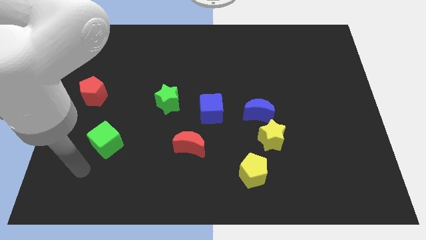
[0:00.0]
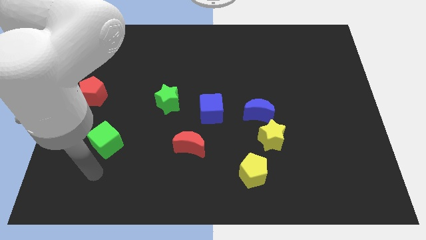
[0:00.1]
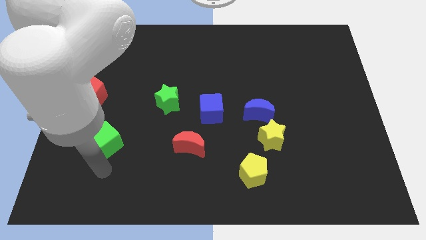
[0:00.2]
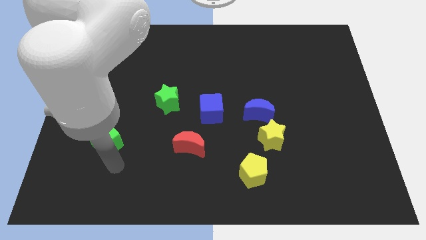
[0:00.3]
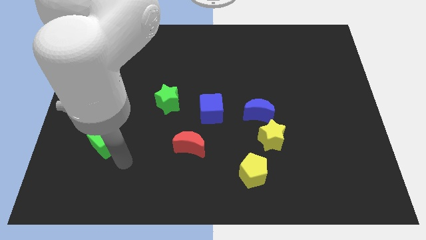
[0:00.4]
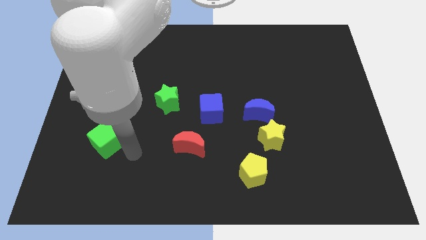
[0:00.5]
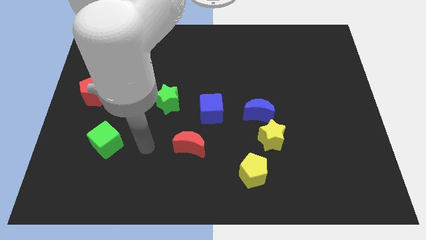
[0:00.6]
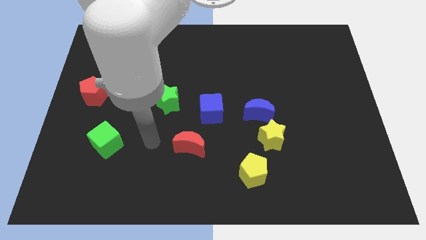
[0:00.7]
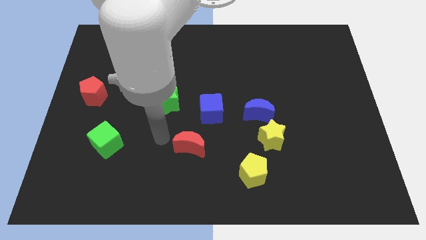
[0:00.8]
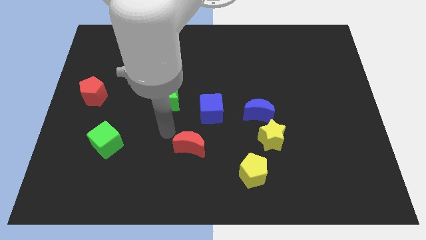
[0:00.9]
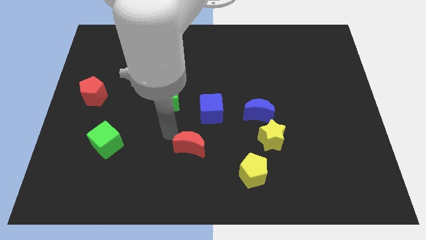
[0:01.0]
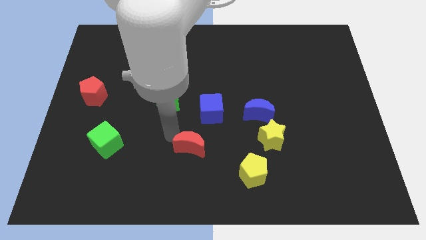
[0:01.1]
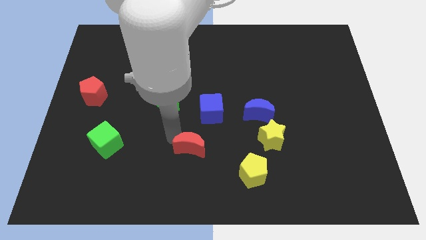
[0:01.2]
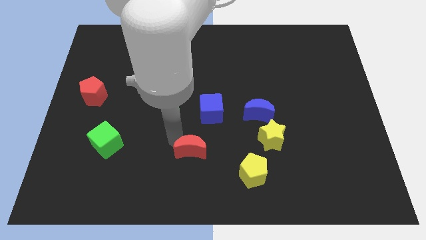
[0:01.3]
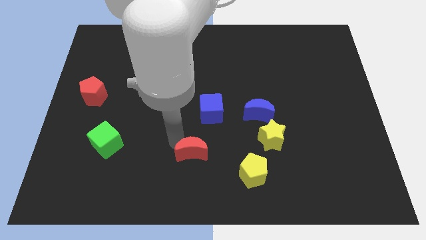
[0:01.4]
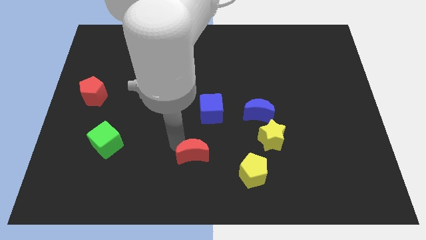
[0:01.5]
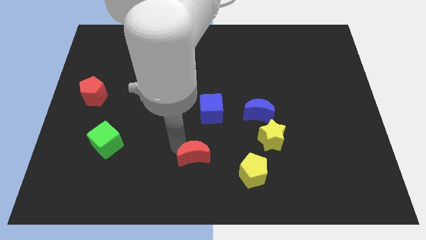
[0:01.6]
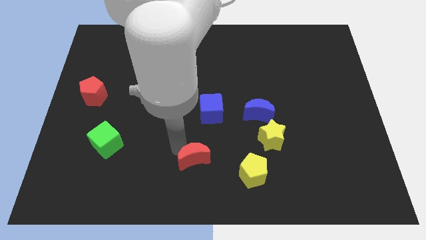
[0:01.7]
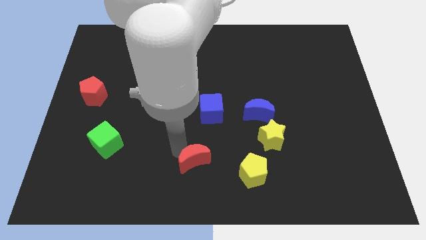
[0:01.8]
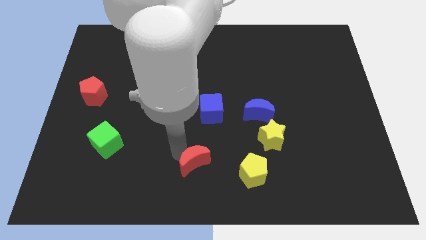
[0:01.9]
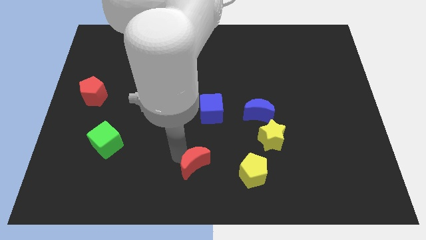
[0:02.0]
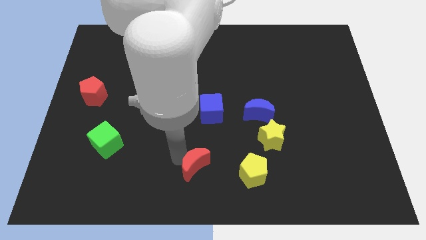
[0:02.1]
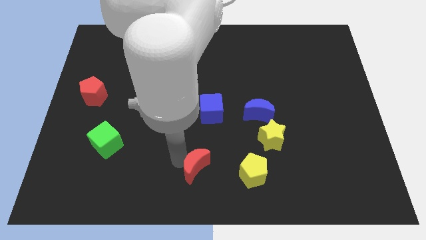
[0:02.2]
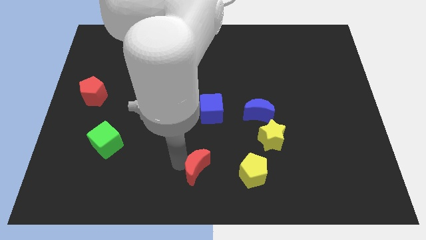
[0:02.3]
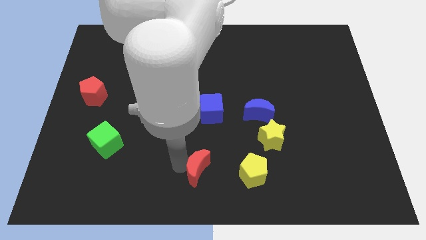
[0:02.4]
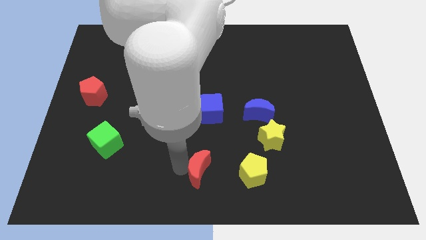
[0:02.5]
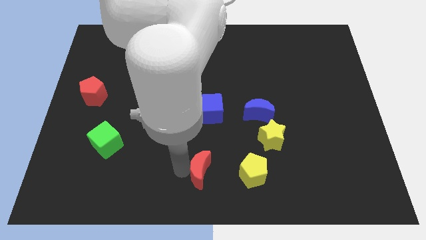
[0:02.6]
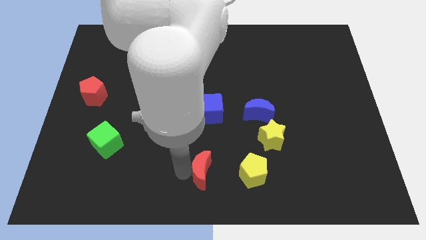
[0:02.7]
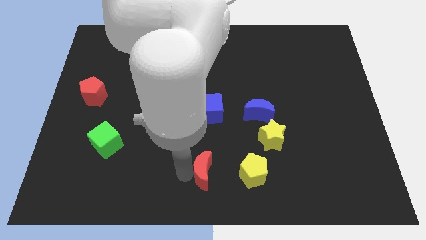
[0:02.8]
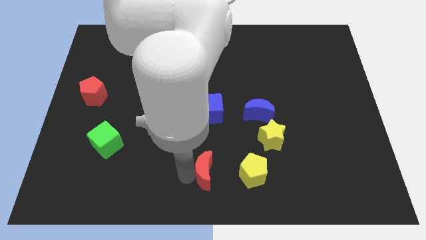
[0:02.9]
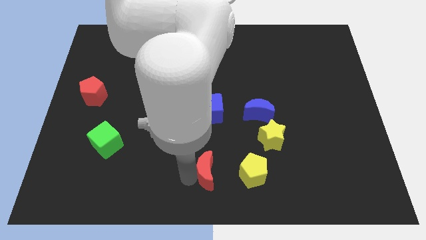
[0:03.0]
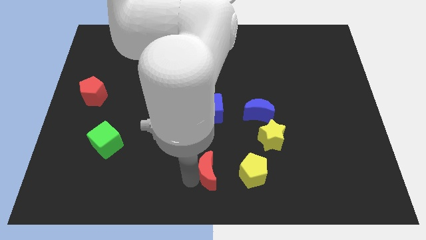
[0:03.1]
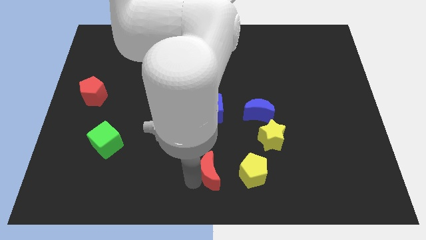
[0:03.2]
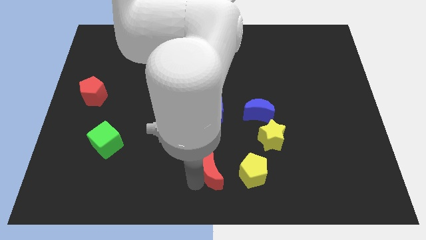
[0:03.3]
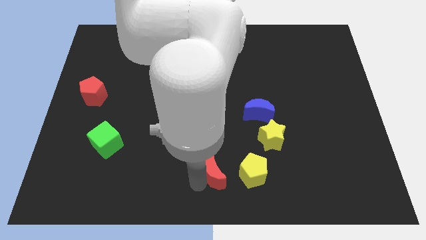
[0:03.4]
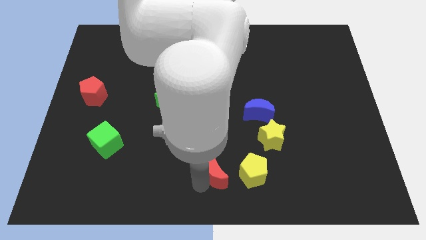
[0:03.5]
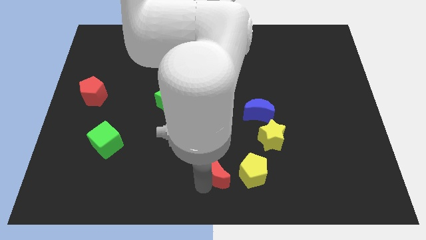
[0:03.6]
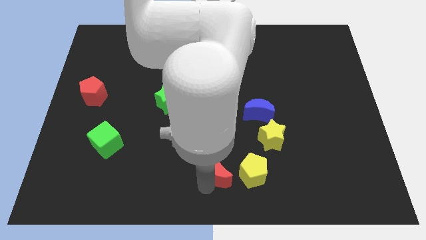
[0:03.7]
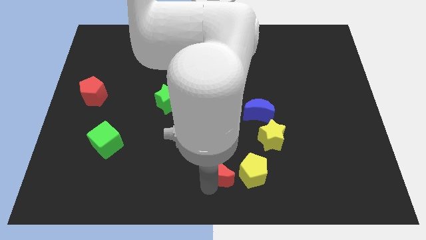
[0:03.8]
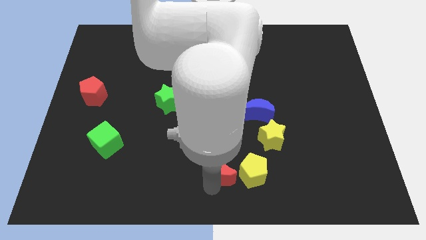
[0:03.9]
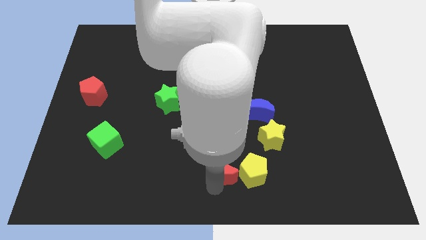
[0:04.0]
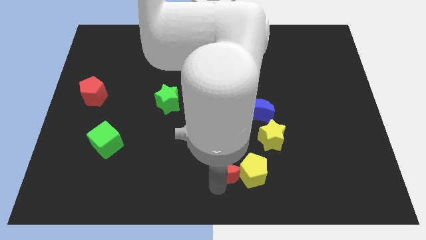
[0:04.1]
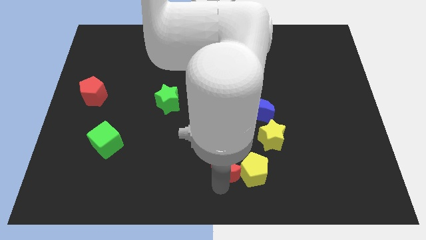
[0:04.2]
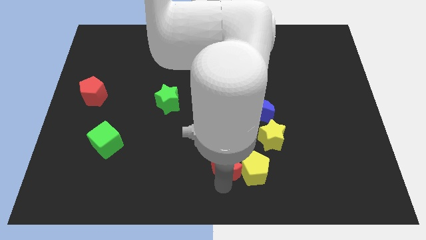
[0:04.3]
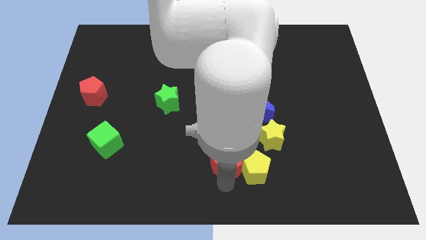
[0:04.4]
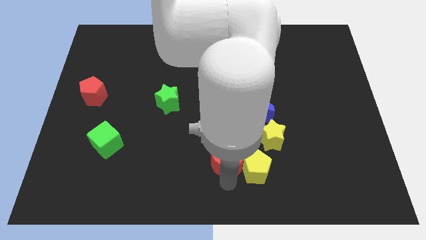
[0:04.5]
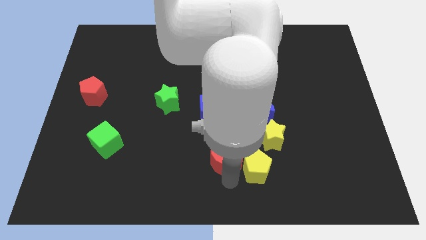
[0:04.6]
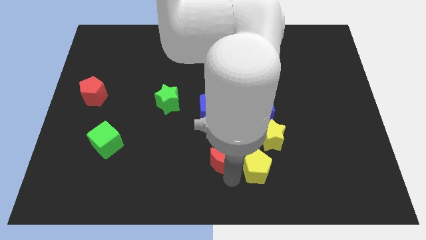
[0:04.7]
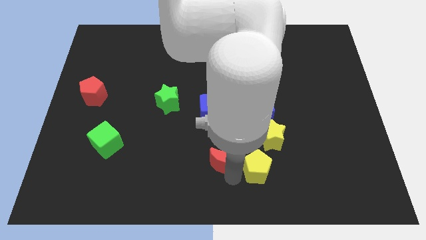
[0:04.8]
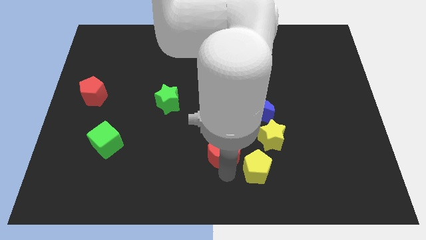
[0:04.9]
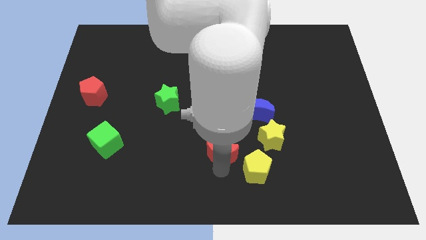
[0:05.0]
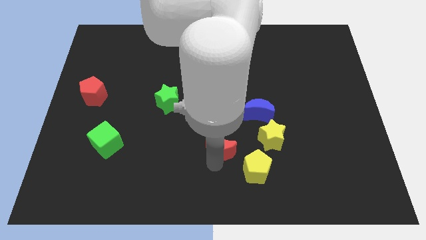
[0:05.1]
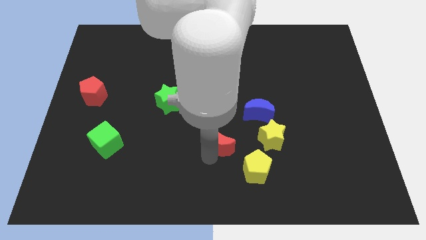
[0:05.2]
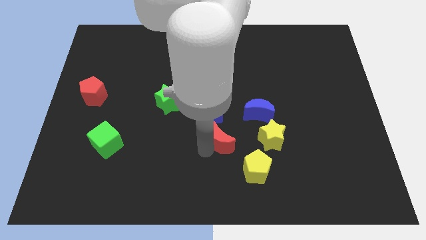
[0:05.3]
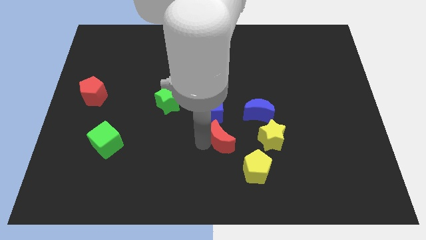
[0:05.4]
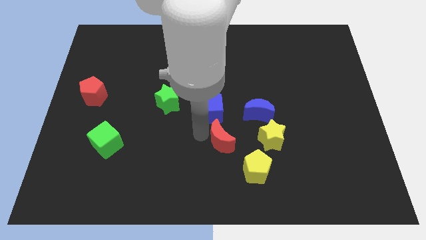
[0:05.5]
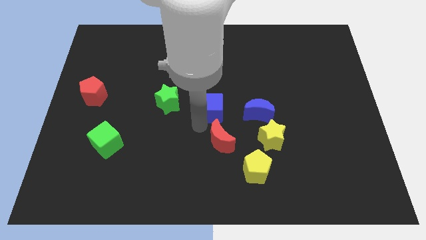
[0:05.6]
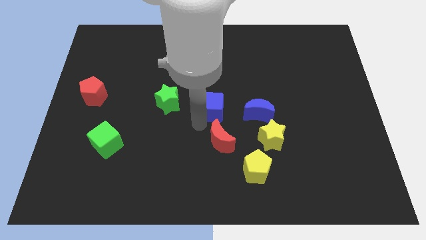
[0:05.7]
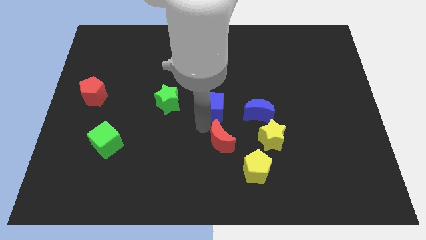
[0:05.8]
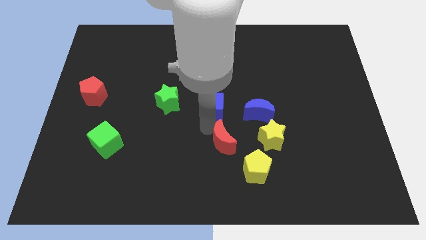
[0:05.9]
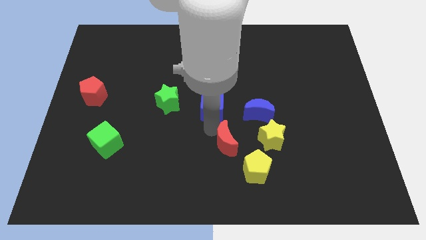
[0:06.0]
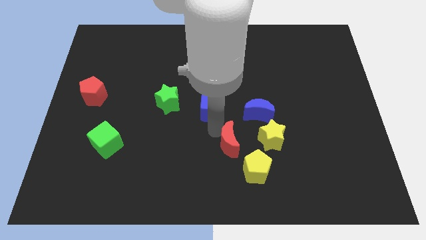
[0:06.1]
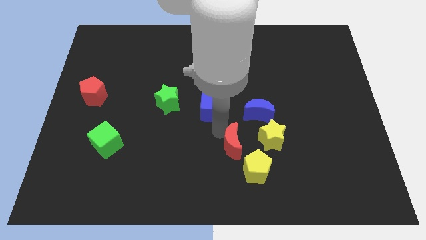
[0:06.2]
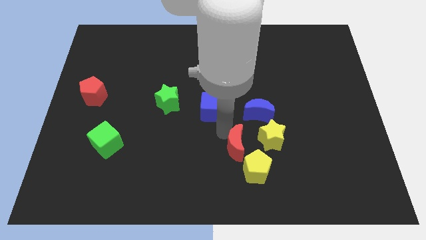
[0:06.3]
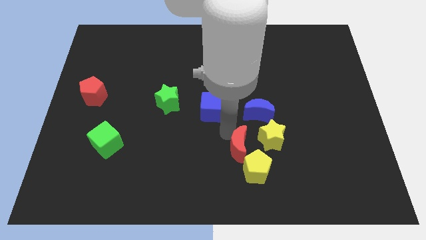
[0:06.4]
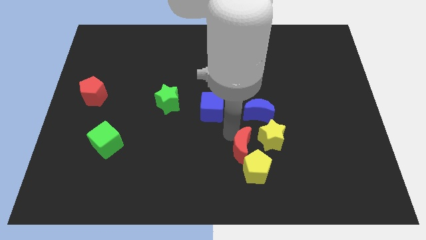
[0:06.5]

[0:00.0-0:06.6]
put the red moon towards the yellow pentagon

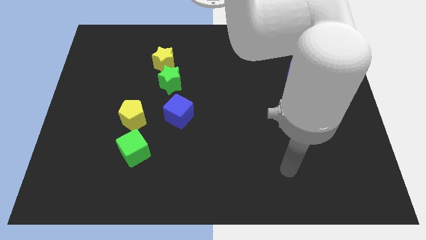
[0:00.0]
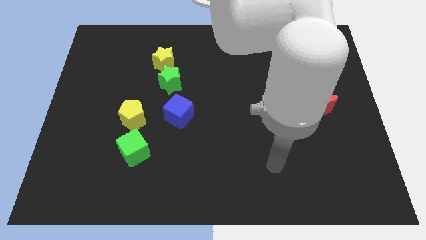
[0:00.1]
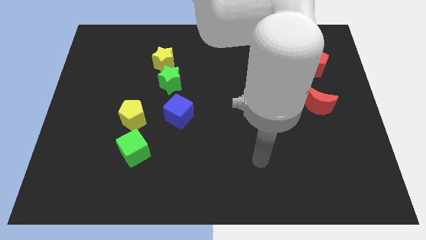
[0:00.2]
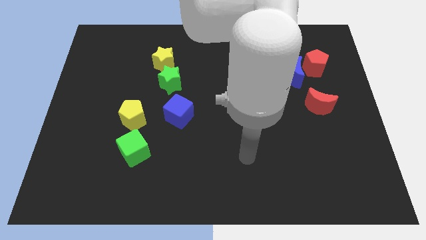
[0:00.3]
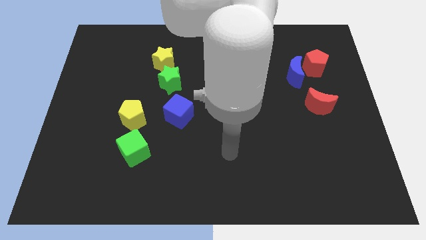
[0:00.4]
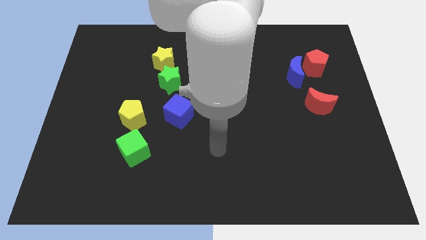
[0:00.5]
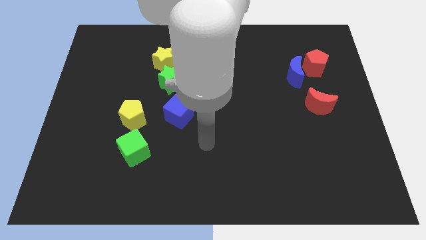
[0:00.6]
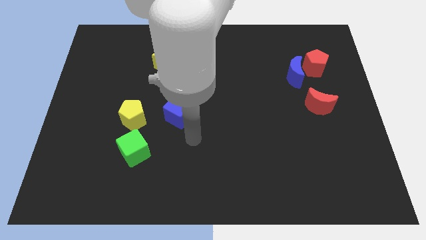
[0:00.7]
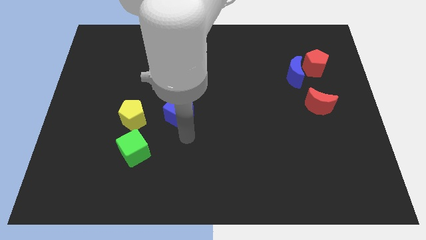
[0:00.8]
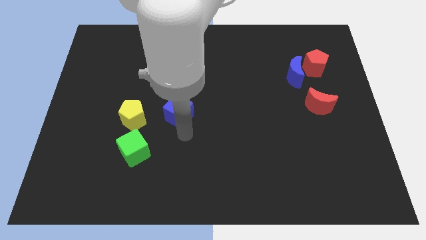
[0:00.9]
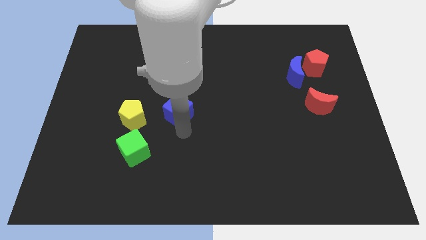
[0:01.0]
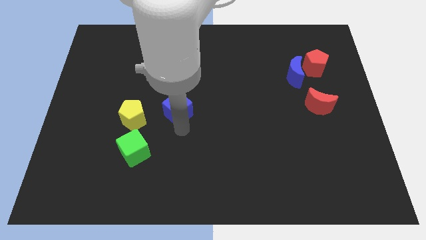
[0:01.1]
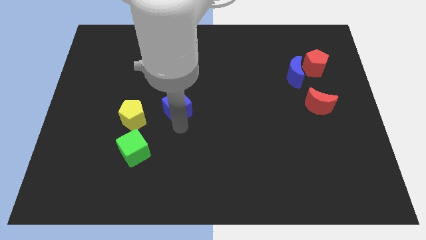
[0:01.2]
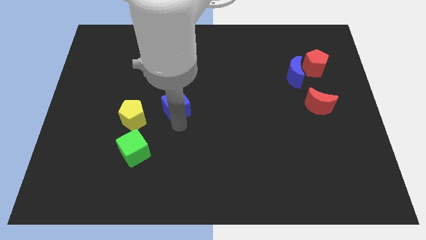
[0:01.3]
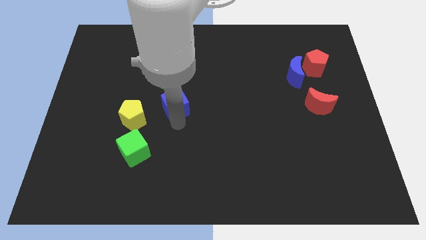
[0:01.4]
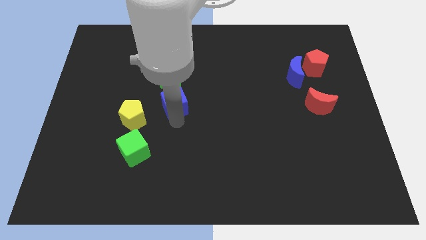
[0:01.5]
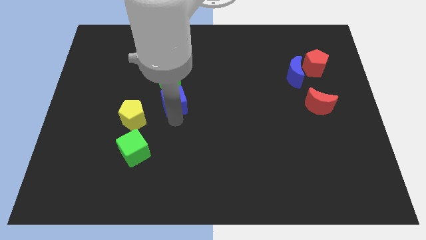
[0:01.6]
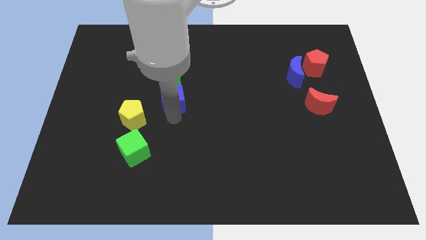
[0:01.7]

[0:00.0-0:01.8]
put the blue cube to the green star
